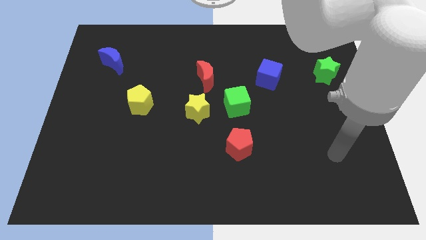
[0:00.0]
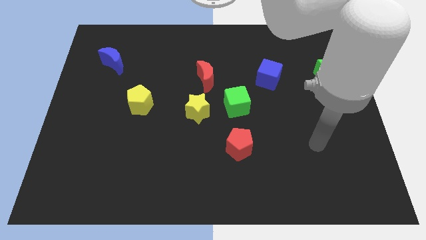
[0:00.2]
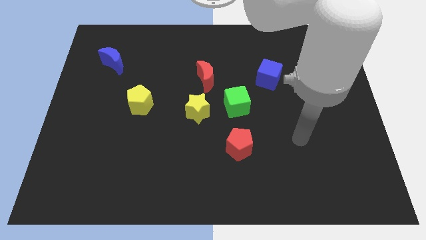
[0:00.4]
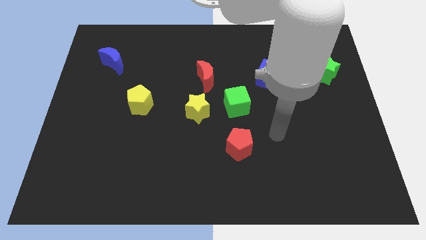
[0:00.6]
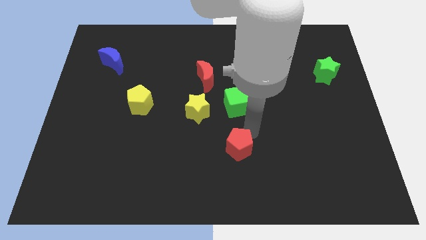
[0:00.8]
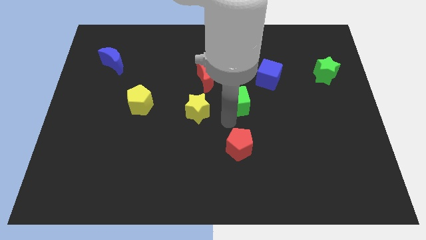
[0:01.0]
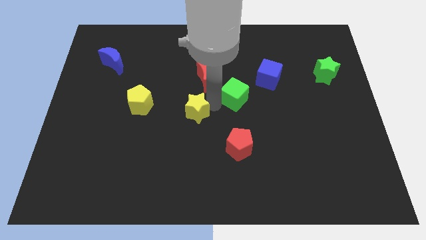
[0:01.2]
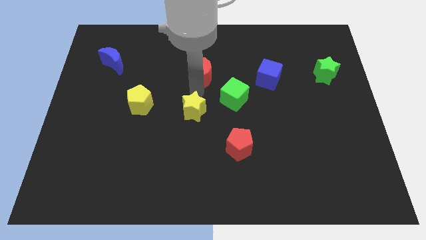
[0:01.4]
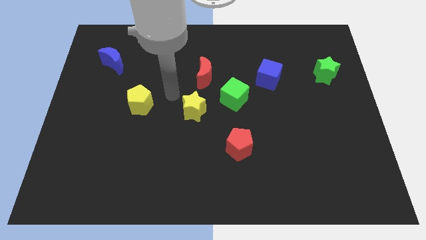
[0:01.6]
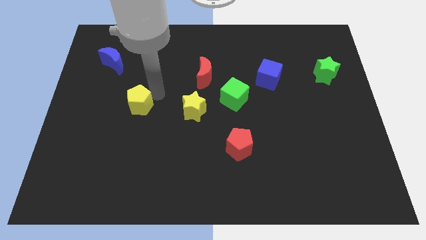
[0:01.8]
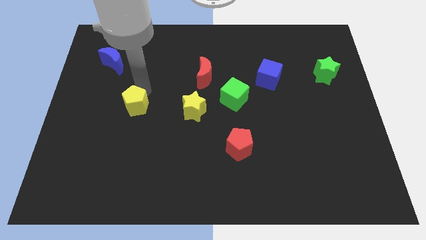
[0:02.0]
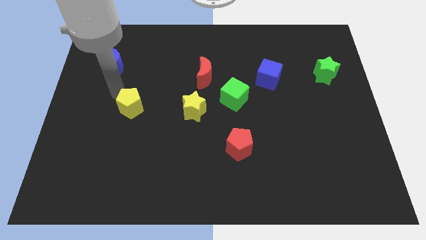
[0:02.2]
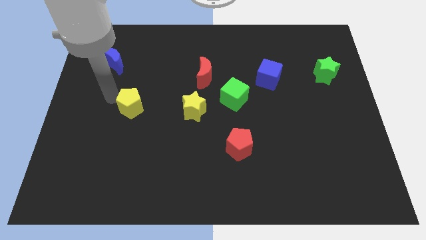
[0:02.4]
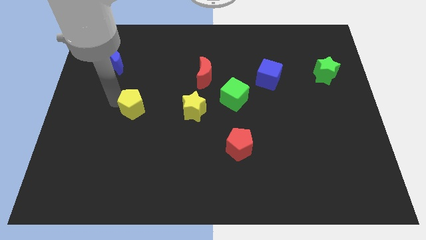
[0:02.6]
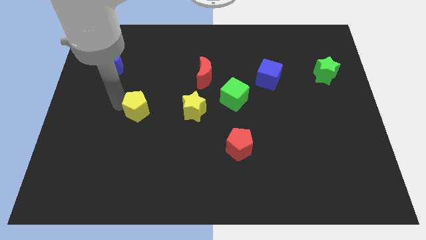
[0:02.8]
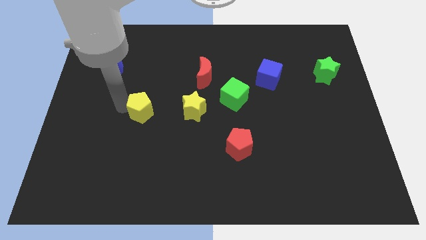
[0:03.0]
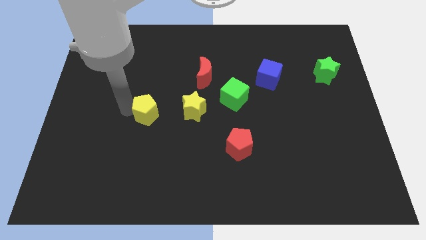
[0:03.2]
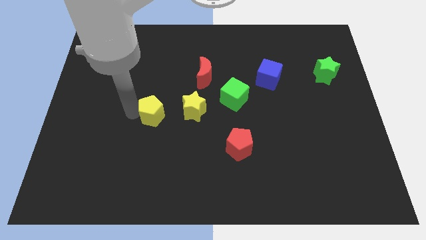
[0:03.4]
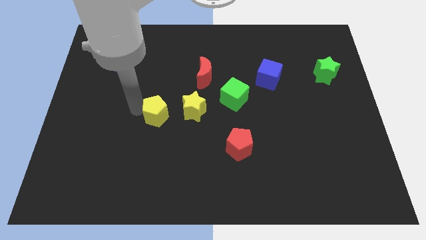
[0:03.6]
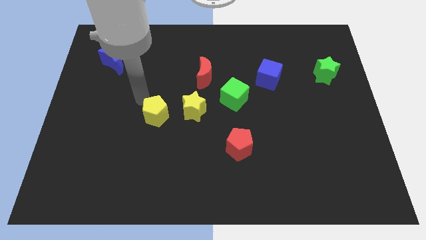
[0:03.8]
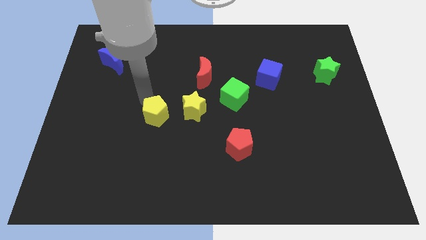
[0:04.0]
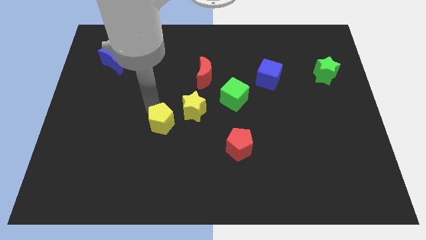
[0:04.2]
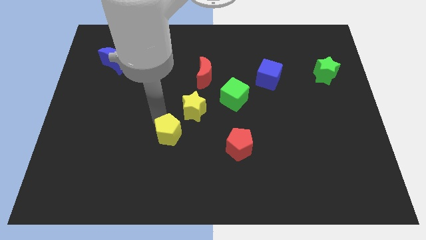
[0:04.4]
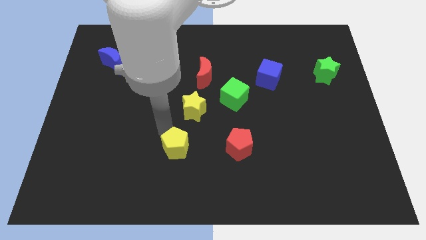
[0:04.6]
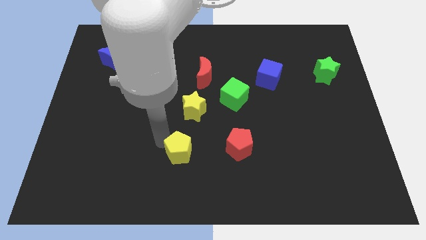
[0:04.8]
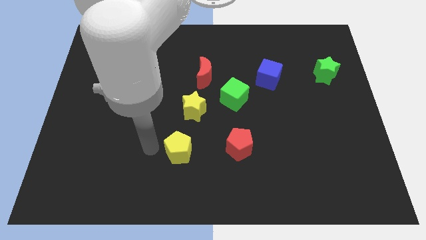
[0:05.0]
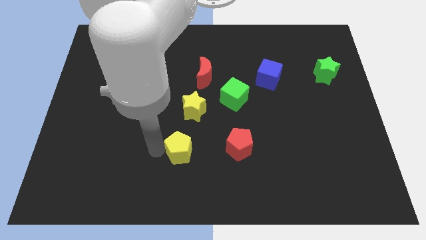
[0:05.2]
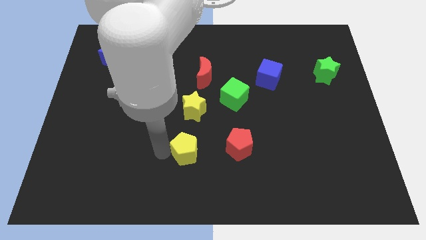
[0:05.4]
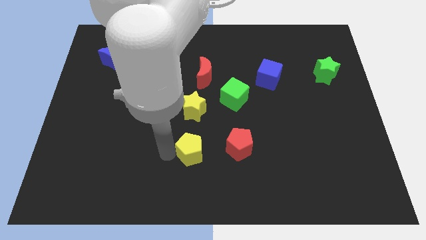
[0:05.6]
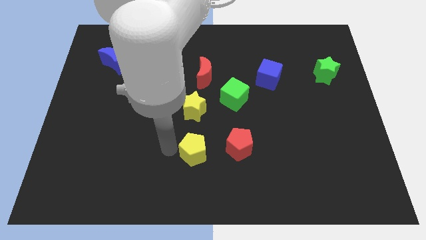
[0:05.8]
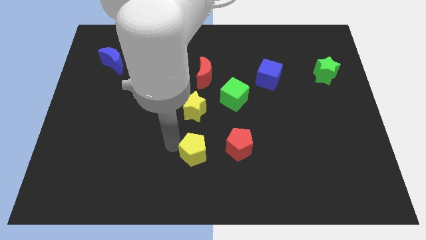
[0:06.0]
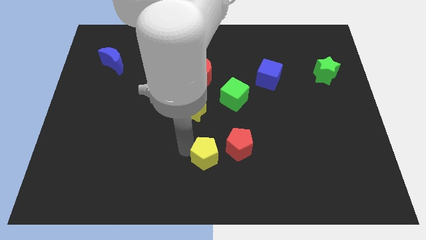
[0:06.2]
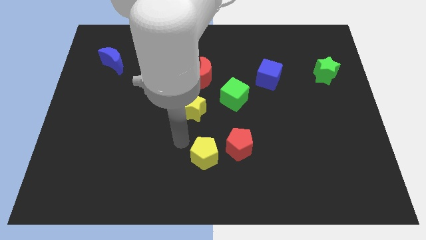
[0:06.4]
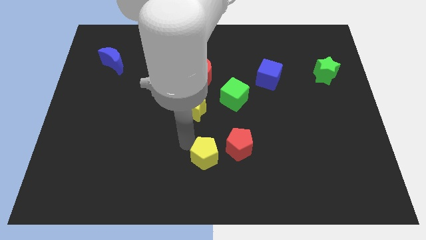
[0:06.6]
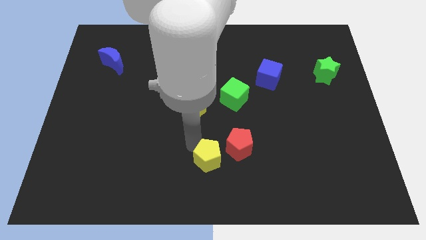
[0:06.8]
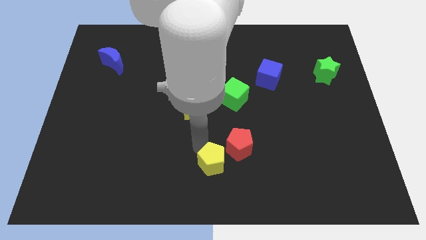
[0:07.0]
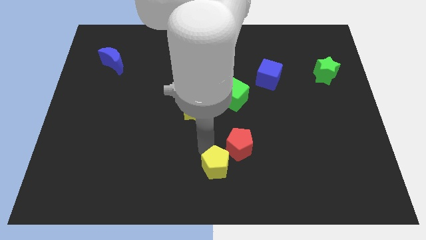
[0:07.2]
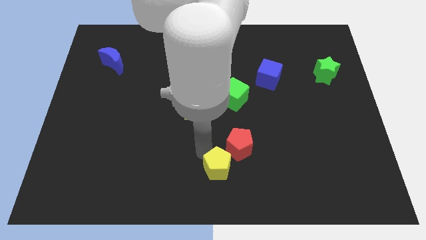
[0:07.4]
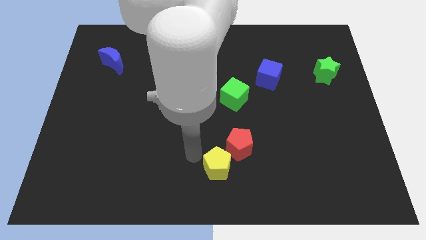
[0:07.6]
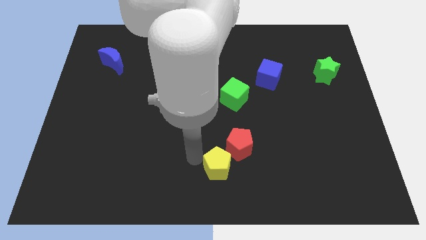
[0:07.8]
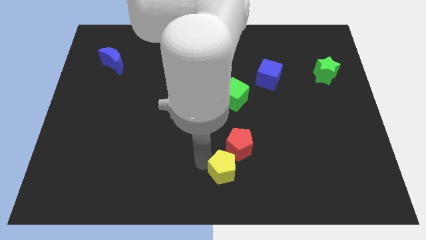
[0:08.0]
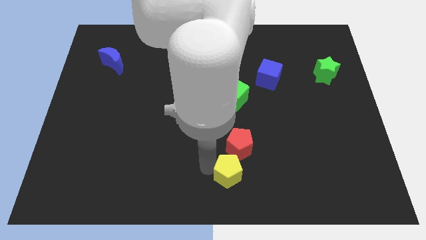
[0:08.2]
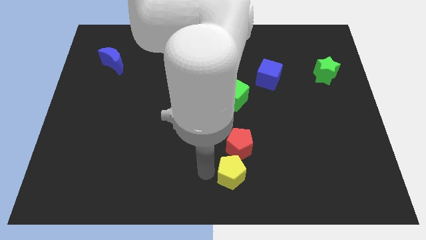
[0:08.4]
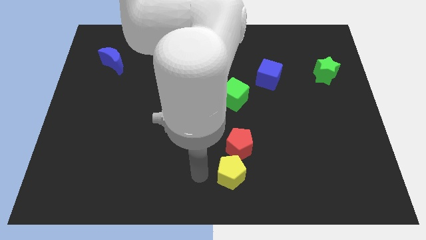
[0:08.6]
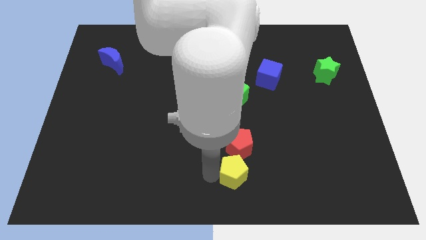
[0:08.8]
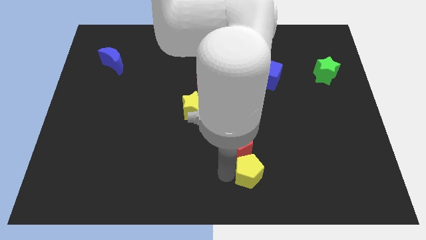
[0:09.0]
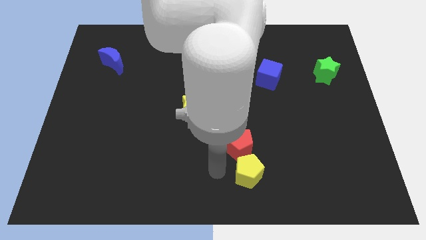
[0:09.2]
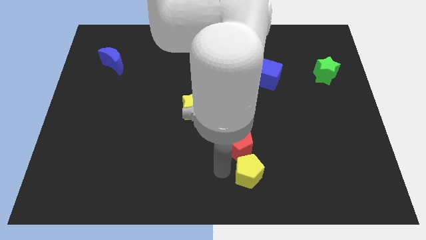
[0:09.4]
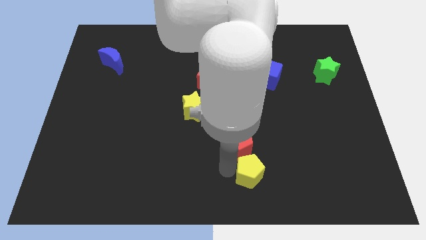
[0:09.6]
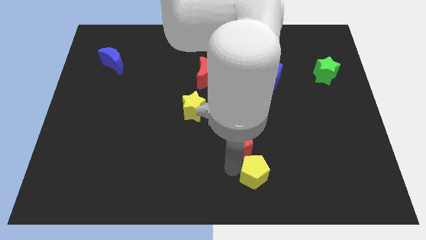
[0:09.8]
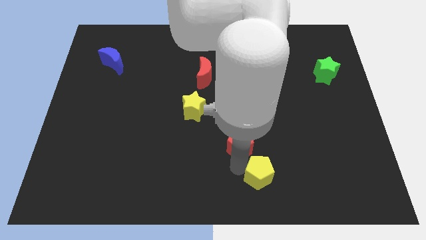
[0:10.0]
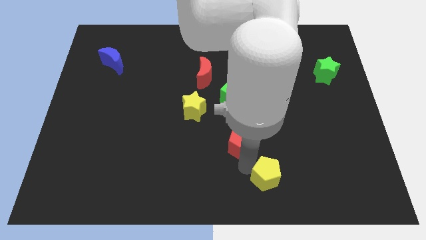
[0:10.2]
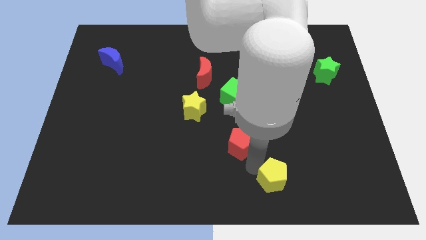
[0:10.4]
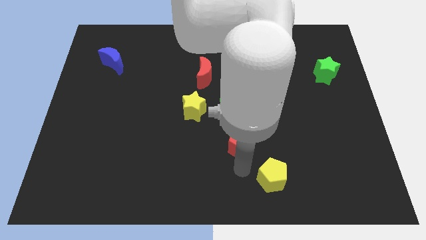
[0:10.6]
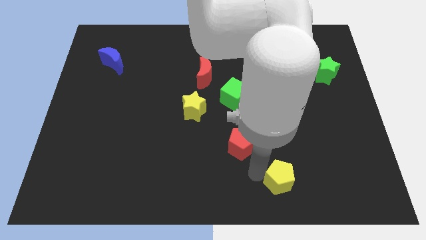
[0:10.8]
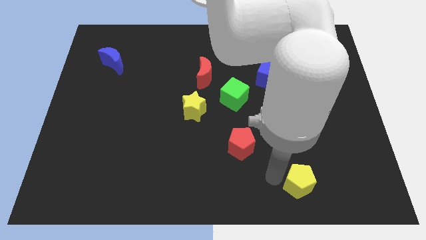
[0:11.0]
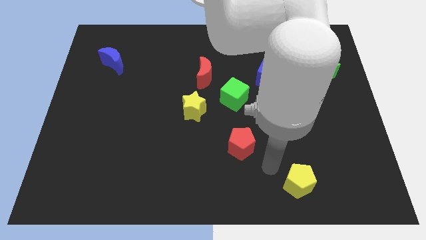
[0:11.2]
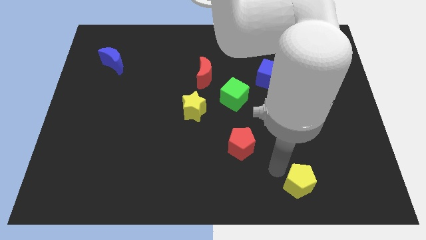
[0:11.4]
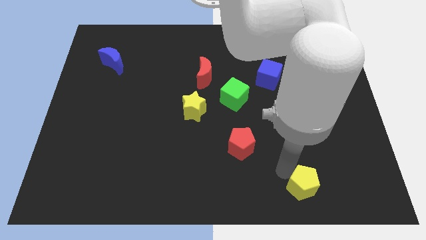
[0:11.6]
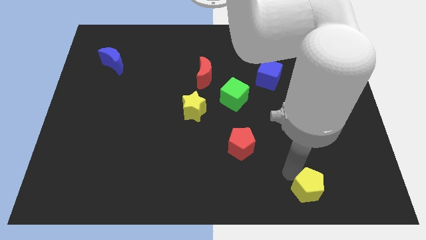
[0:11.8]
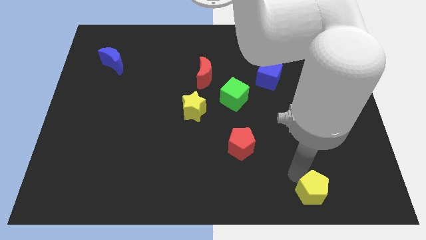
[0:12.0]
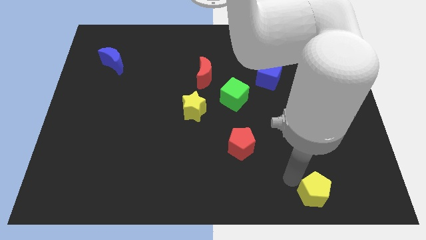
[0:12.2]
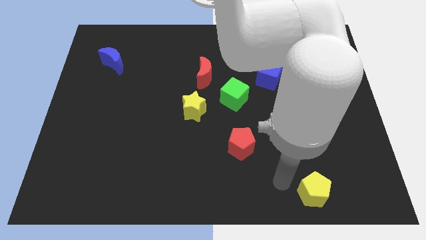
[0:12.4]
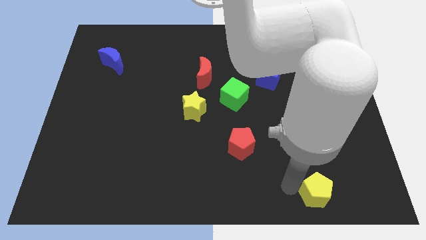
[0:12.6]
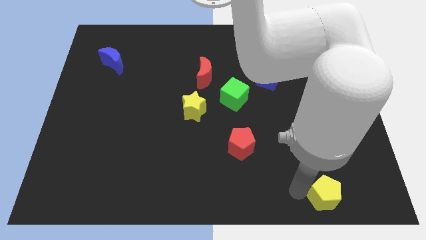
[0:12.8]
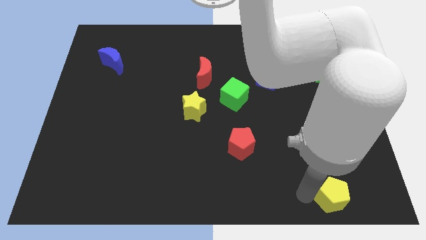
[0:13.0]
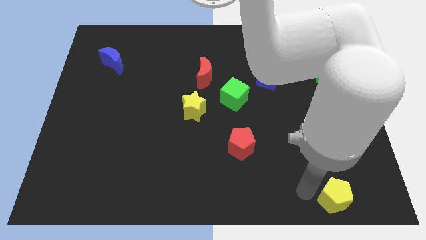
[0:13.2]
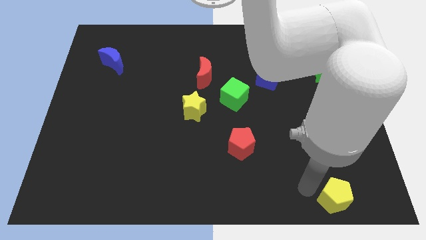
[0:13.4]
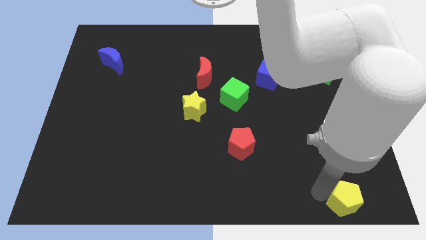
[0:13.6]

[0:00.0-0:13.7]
put the yellow pentagon to the bottom right corner

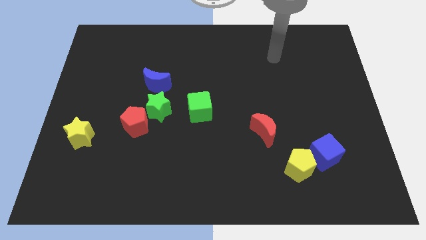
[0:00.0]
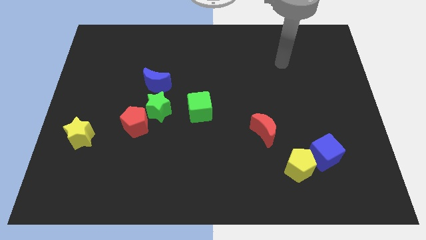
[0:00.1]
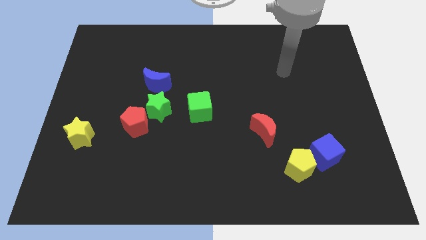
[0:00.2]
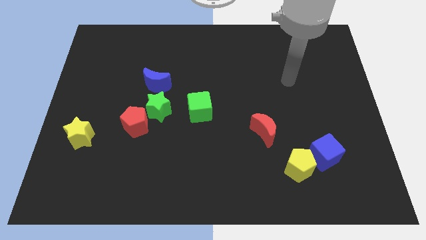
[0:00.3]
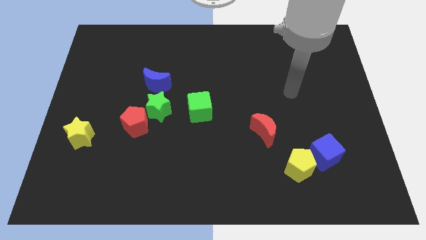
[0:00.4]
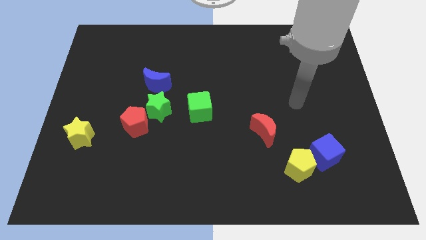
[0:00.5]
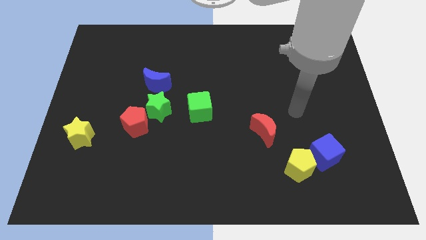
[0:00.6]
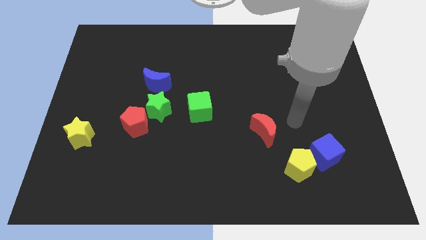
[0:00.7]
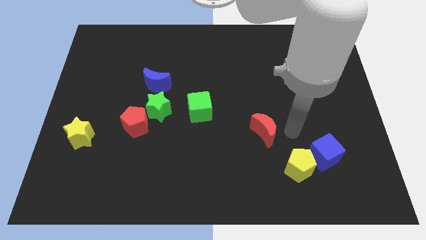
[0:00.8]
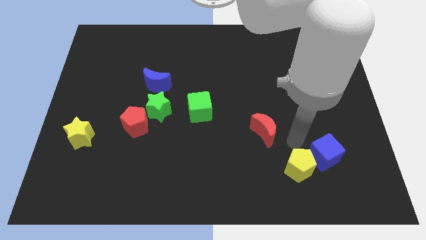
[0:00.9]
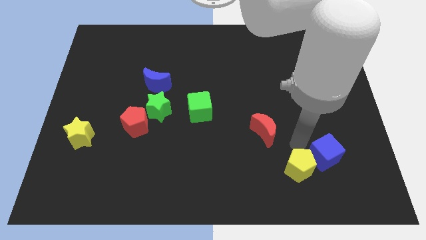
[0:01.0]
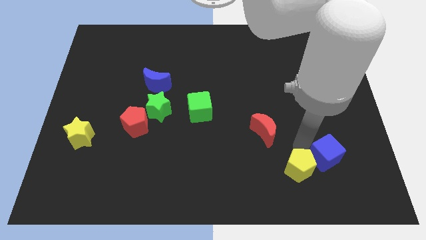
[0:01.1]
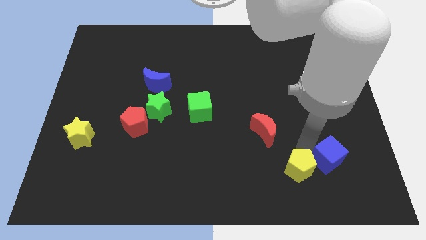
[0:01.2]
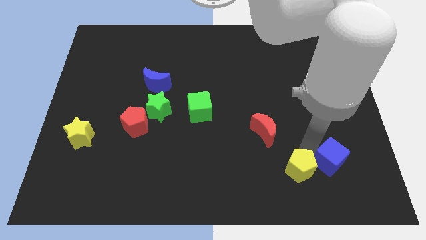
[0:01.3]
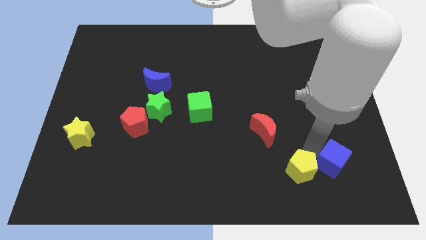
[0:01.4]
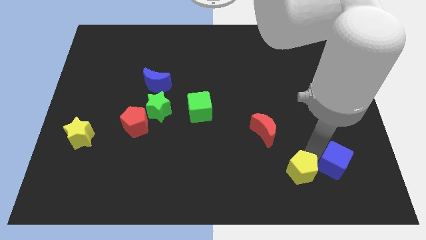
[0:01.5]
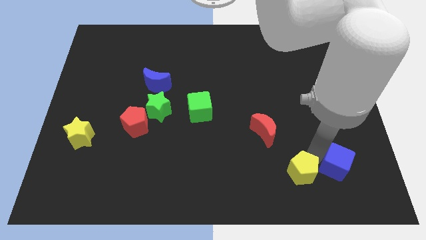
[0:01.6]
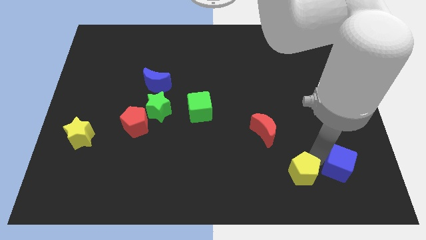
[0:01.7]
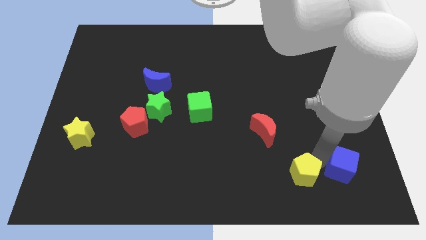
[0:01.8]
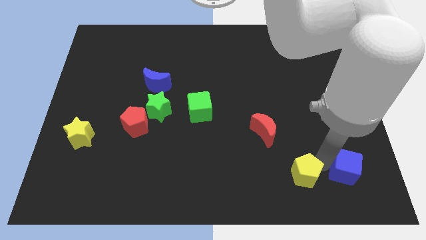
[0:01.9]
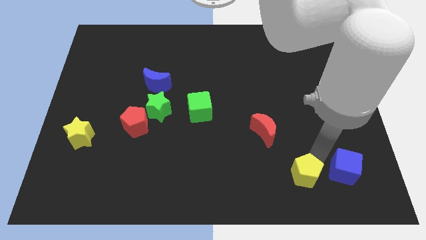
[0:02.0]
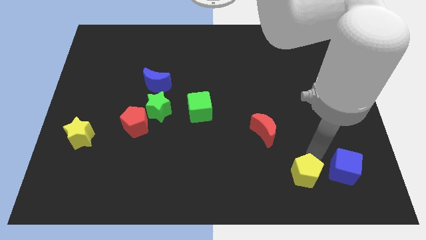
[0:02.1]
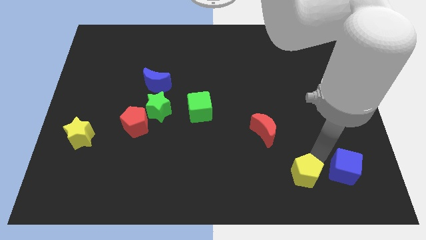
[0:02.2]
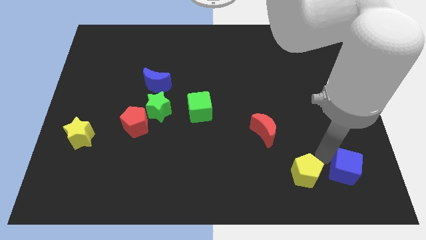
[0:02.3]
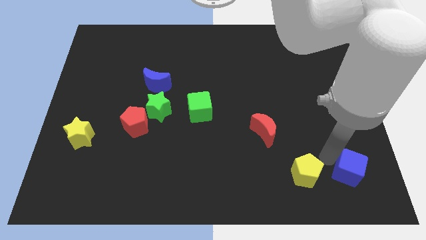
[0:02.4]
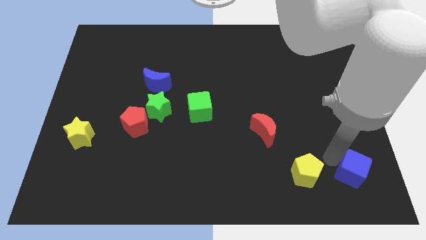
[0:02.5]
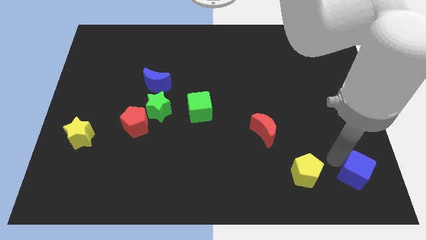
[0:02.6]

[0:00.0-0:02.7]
push the blue cube to the bottom right
